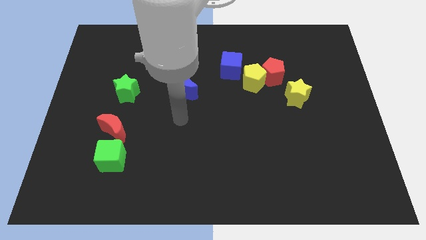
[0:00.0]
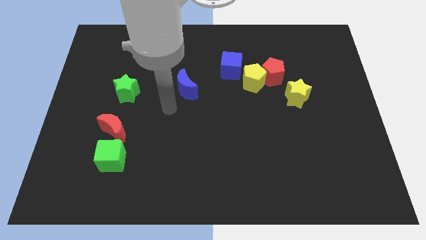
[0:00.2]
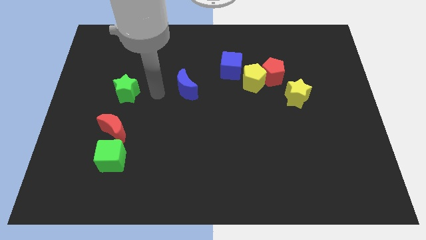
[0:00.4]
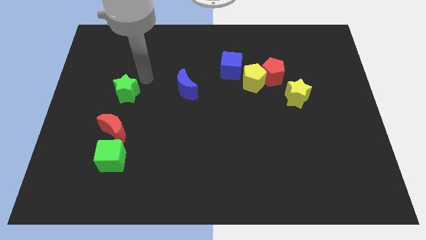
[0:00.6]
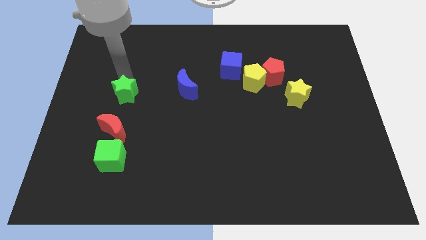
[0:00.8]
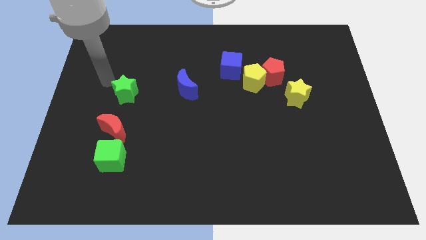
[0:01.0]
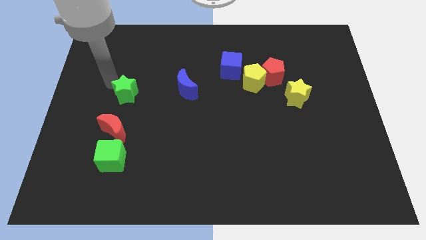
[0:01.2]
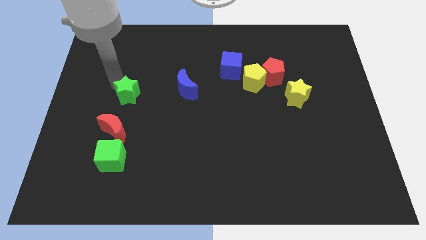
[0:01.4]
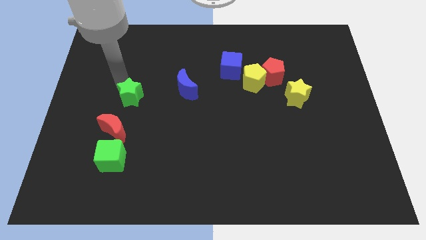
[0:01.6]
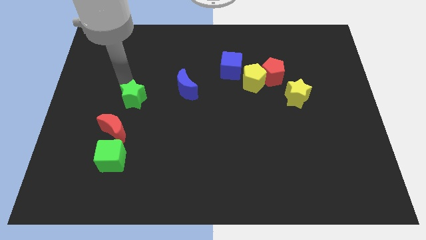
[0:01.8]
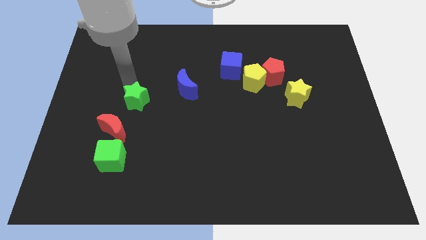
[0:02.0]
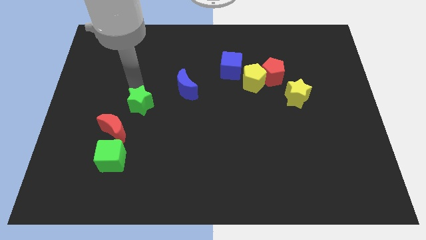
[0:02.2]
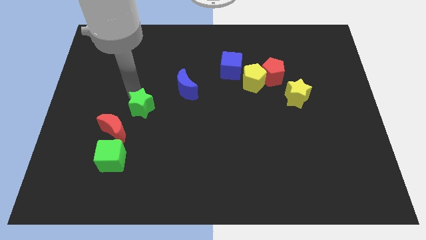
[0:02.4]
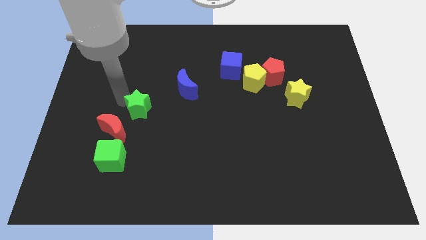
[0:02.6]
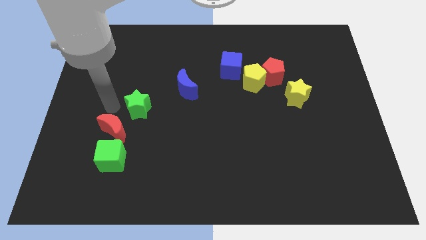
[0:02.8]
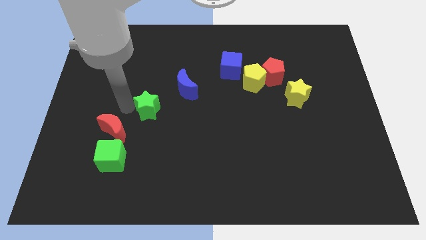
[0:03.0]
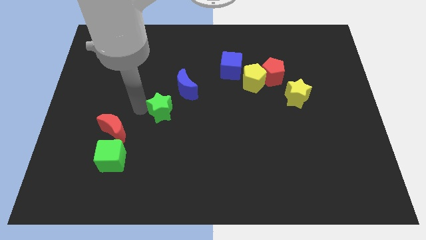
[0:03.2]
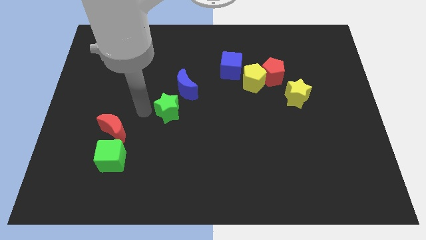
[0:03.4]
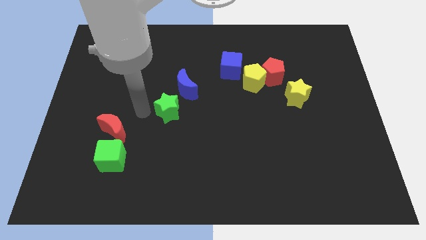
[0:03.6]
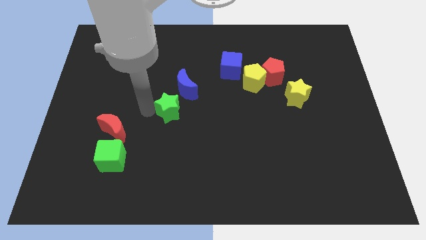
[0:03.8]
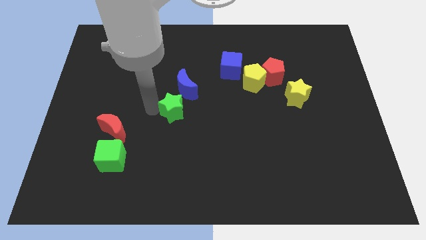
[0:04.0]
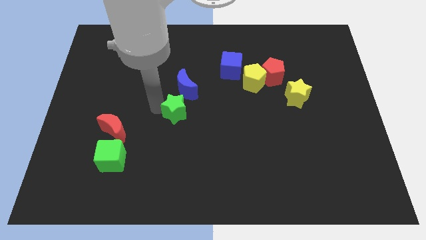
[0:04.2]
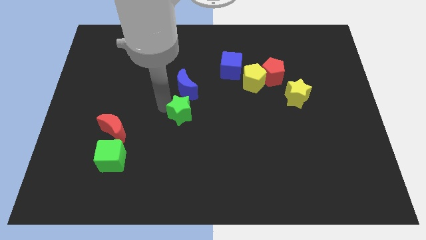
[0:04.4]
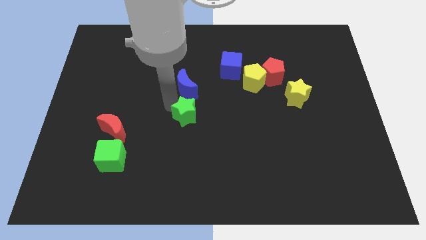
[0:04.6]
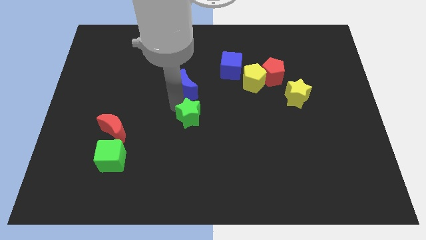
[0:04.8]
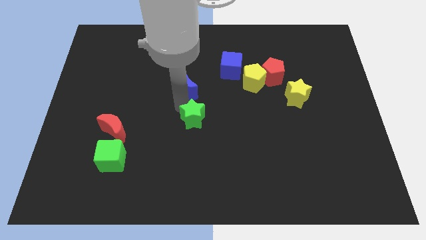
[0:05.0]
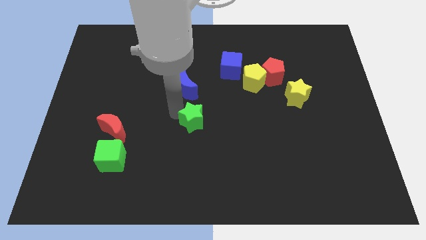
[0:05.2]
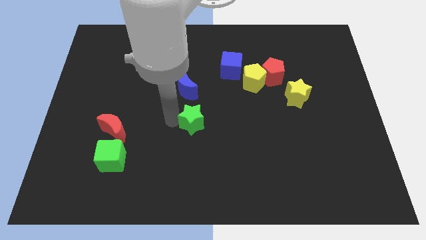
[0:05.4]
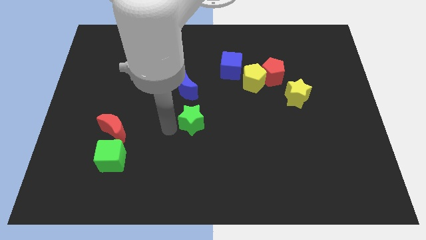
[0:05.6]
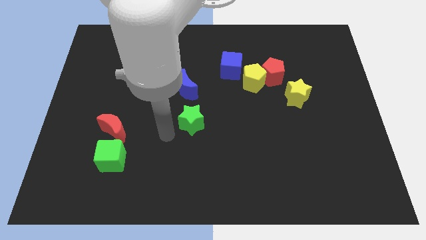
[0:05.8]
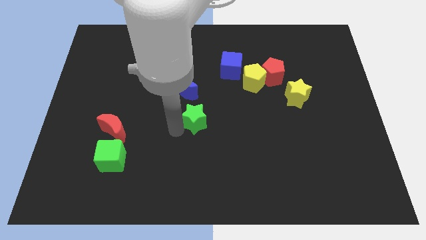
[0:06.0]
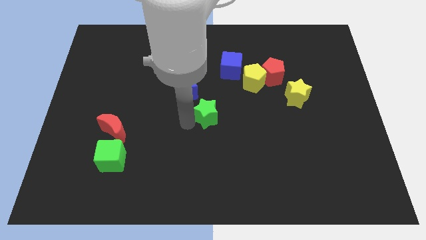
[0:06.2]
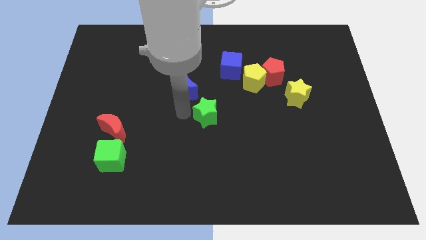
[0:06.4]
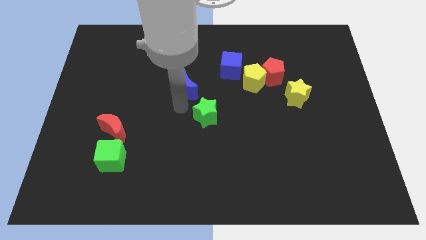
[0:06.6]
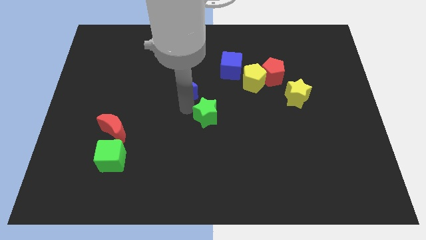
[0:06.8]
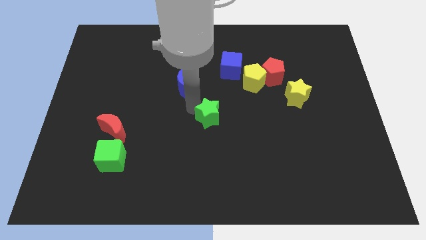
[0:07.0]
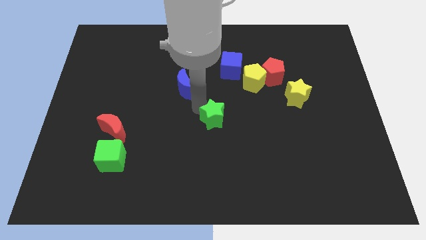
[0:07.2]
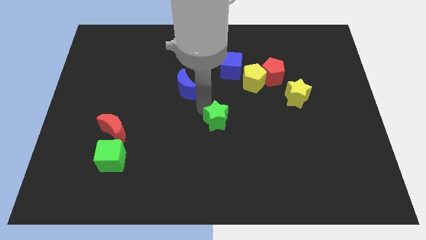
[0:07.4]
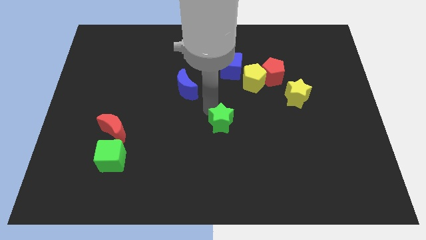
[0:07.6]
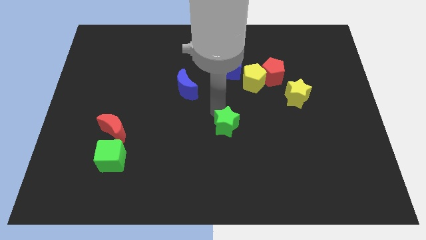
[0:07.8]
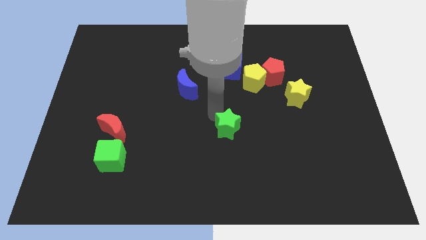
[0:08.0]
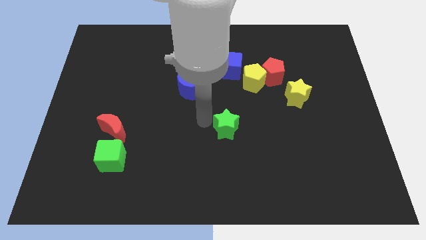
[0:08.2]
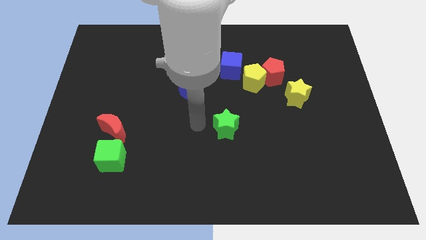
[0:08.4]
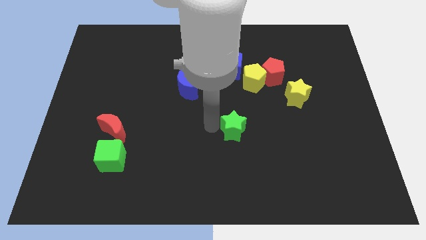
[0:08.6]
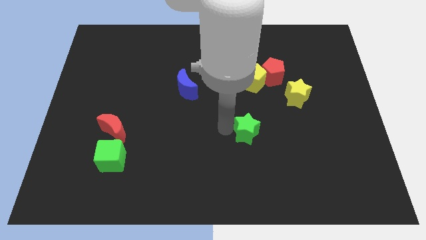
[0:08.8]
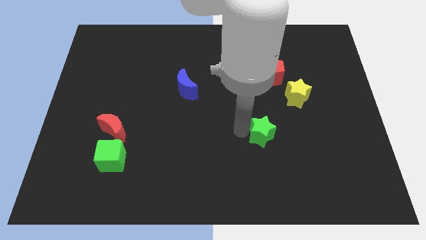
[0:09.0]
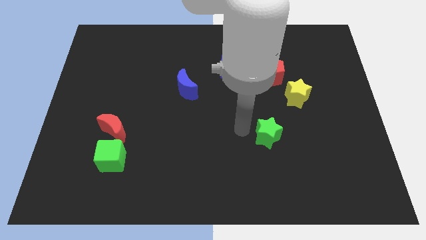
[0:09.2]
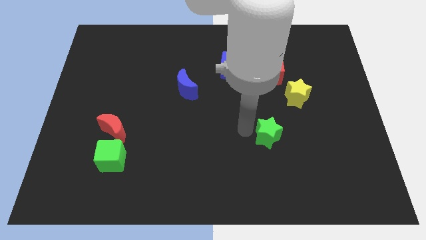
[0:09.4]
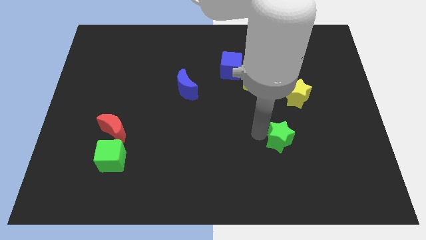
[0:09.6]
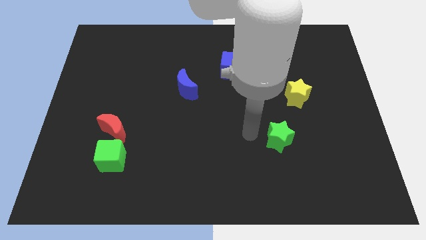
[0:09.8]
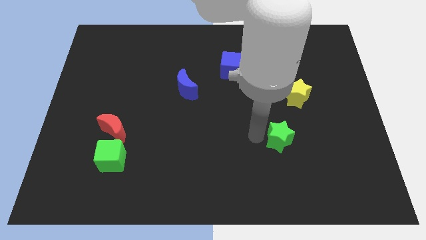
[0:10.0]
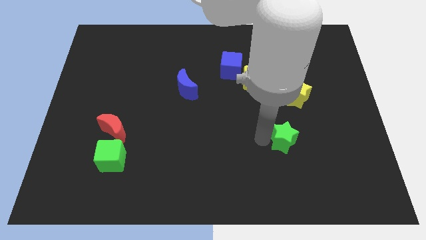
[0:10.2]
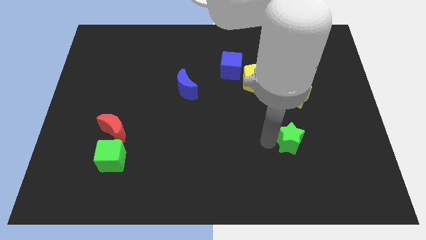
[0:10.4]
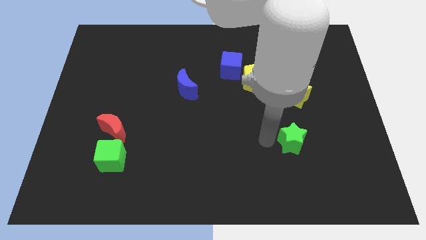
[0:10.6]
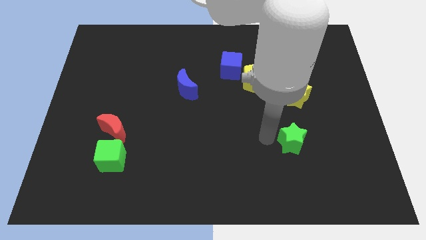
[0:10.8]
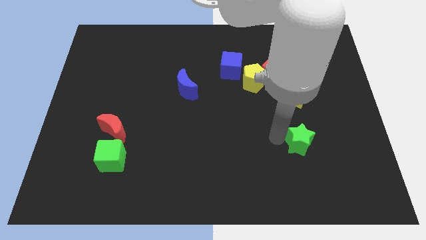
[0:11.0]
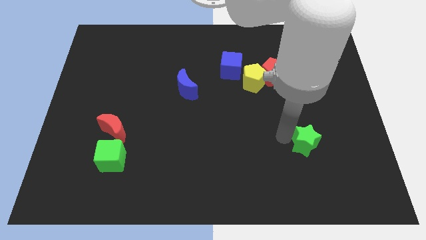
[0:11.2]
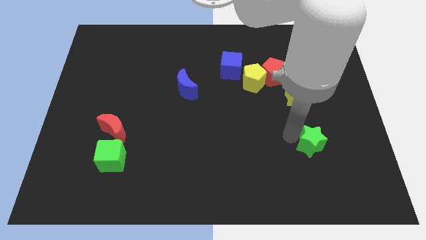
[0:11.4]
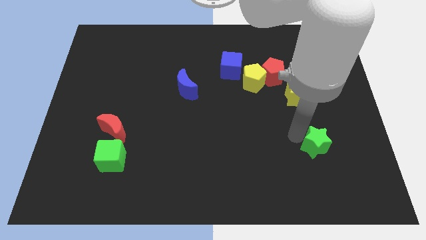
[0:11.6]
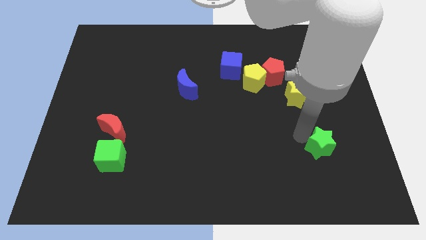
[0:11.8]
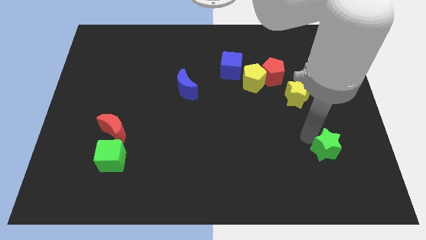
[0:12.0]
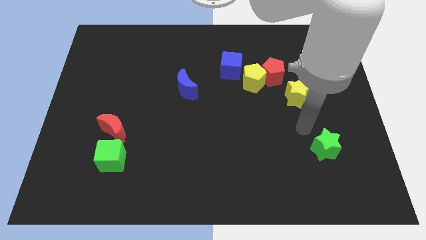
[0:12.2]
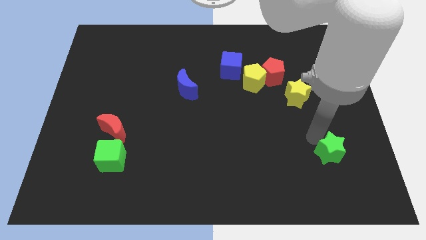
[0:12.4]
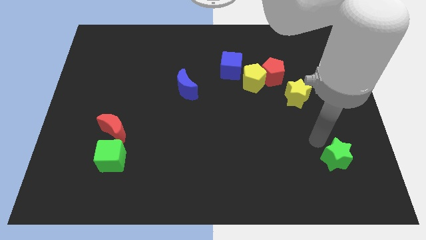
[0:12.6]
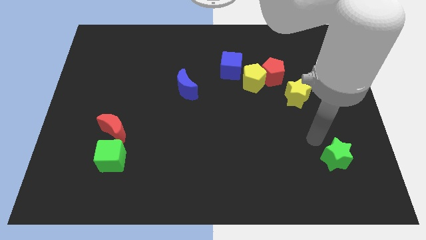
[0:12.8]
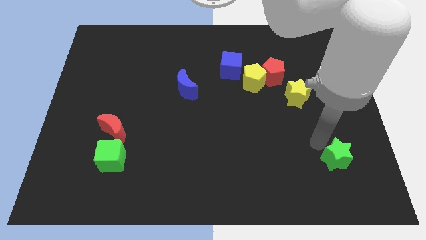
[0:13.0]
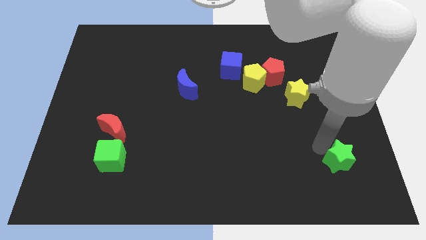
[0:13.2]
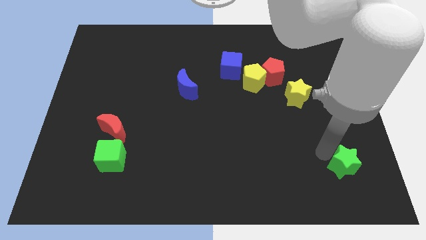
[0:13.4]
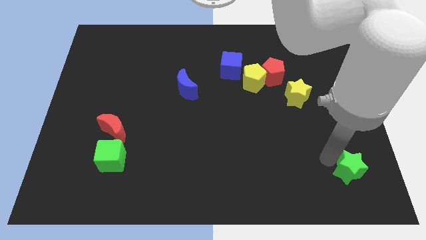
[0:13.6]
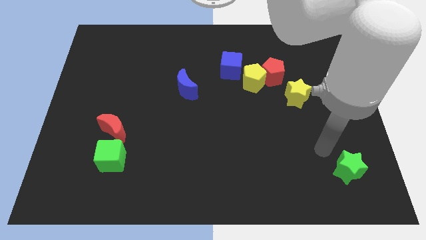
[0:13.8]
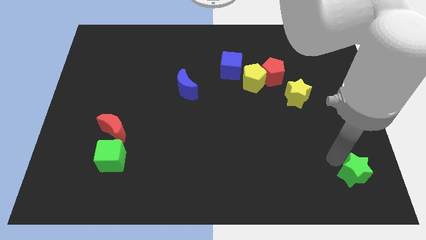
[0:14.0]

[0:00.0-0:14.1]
slide the green star to the bottom right of the board
